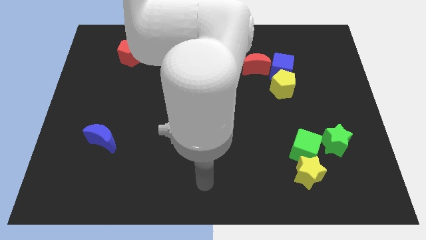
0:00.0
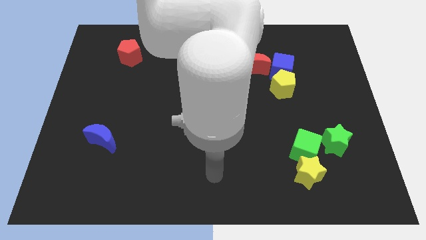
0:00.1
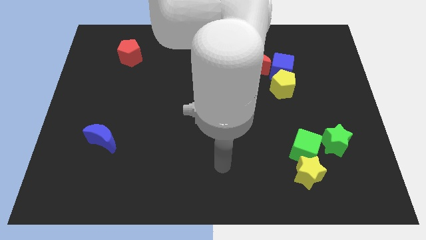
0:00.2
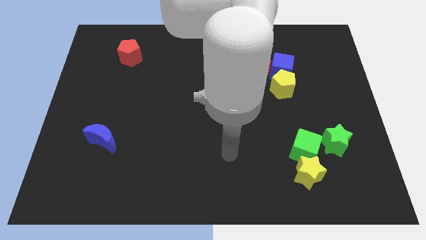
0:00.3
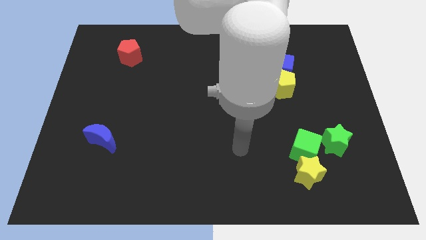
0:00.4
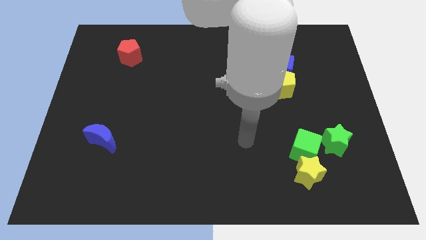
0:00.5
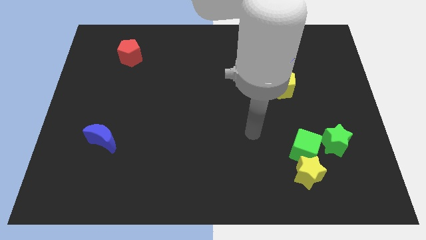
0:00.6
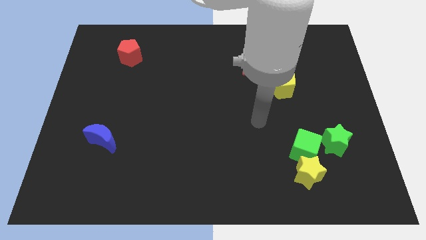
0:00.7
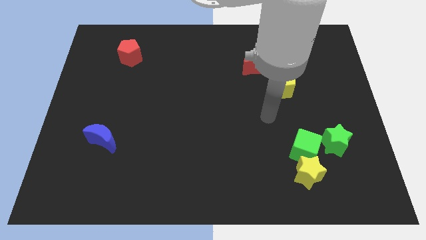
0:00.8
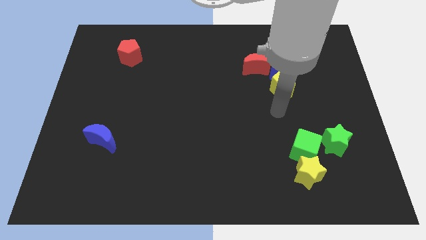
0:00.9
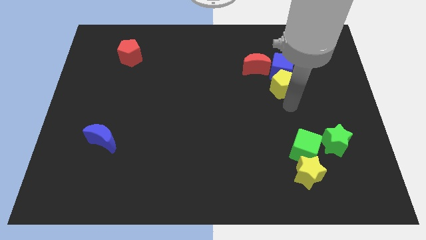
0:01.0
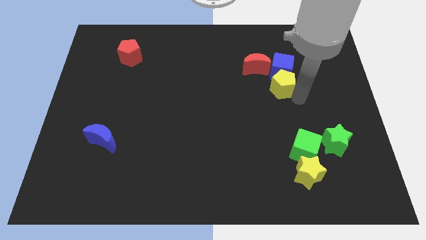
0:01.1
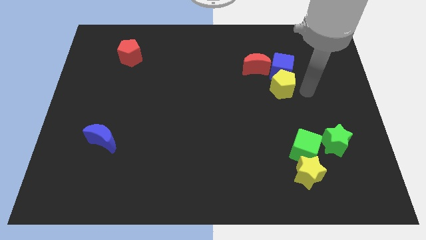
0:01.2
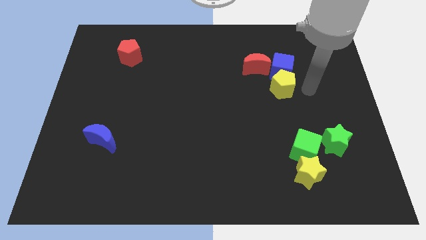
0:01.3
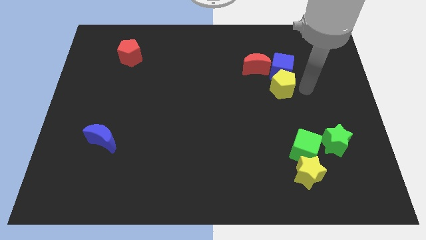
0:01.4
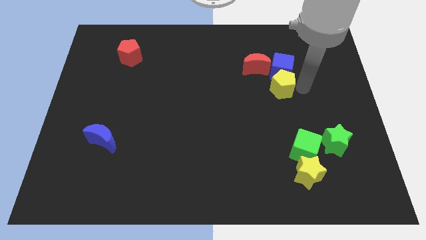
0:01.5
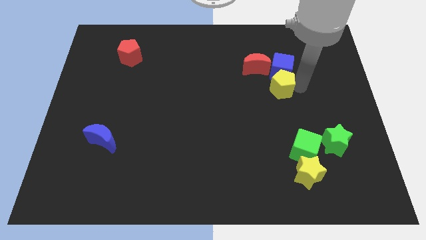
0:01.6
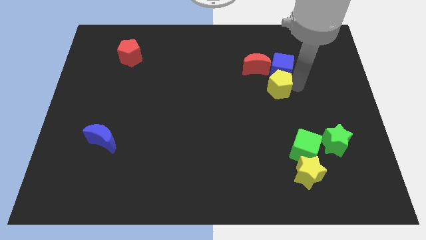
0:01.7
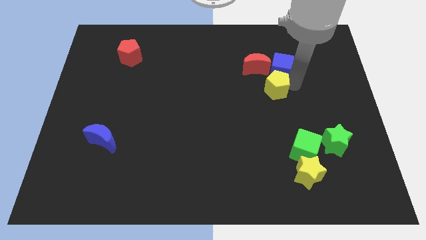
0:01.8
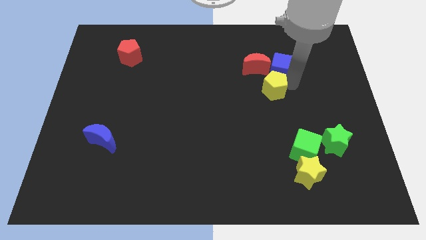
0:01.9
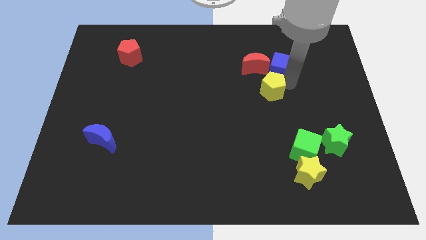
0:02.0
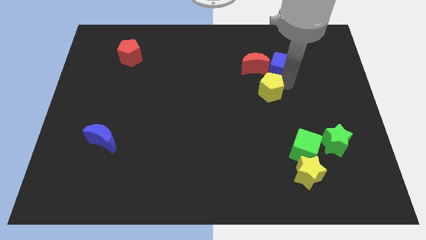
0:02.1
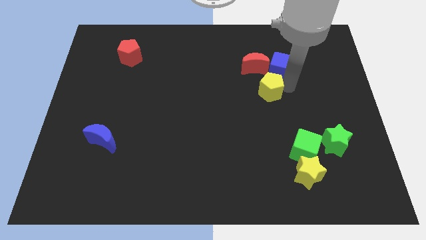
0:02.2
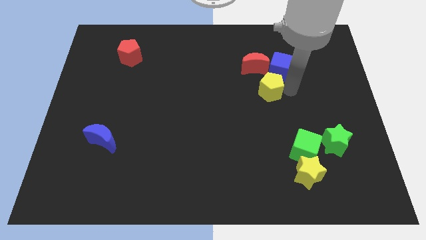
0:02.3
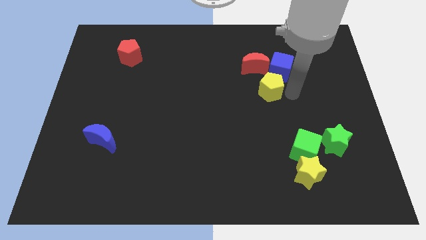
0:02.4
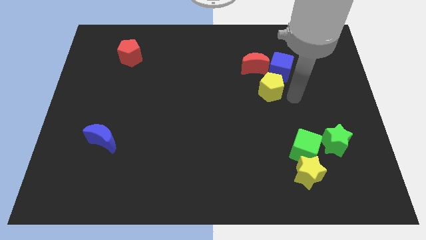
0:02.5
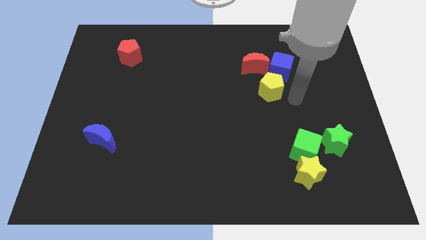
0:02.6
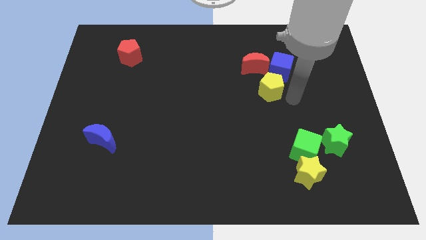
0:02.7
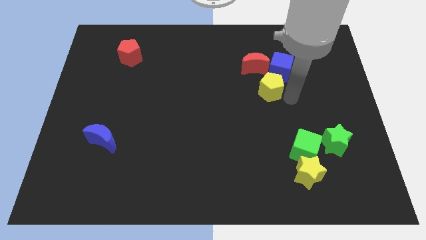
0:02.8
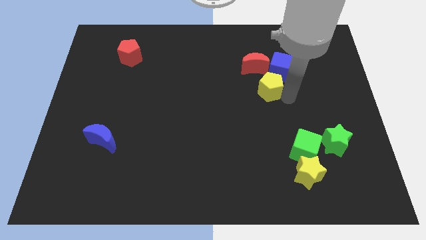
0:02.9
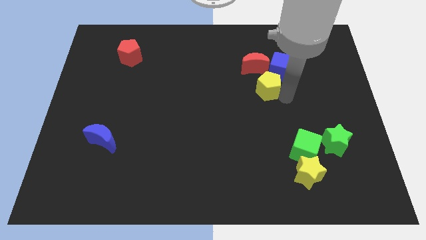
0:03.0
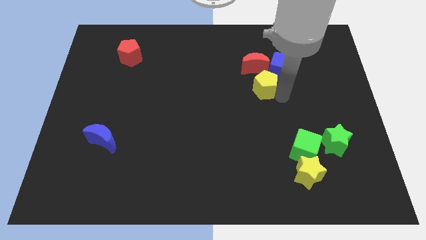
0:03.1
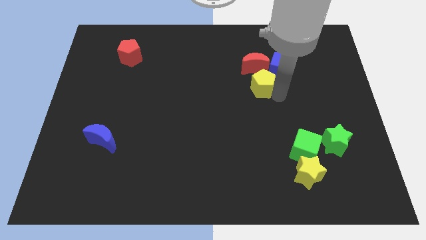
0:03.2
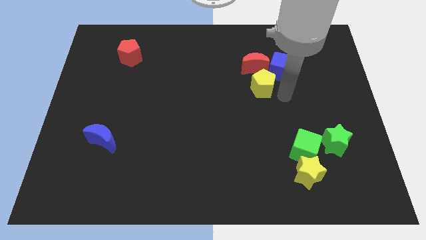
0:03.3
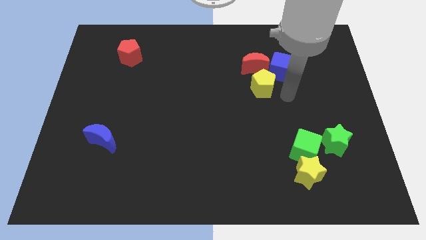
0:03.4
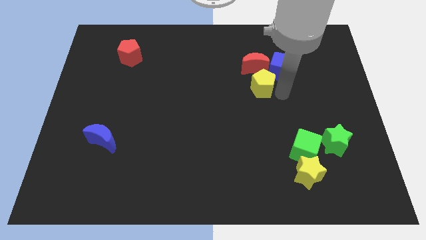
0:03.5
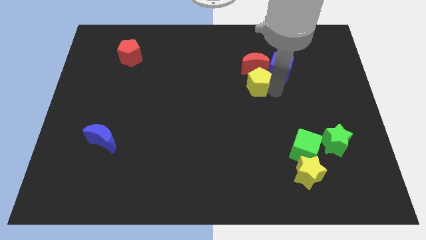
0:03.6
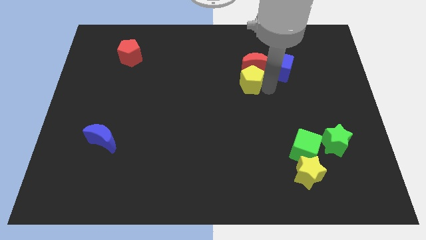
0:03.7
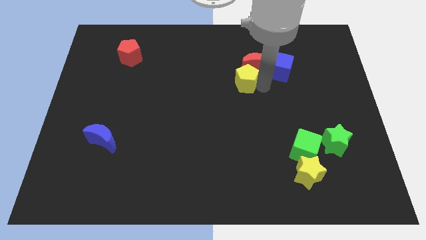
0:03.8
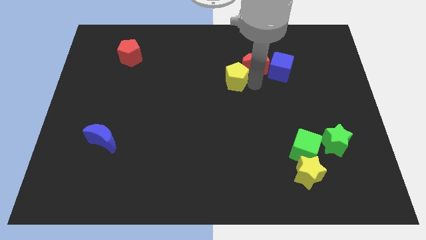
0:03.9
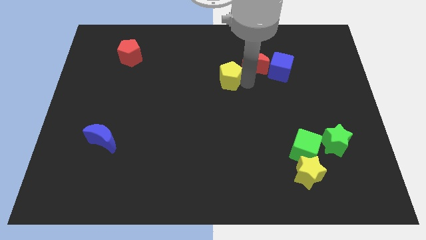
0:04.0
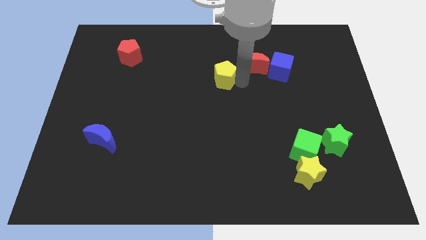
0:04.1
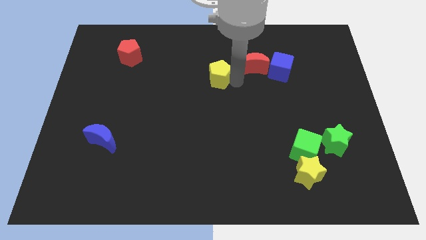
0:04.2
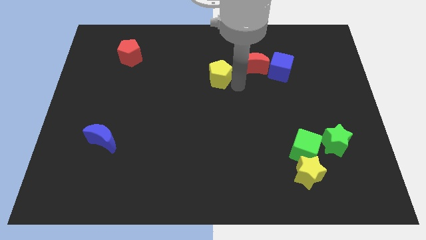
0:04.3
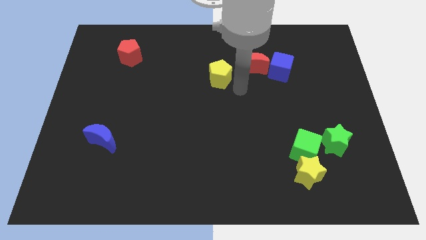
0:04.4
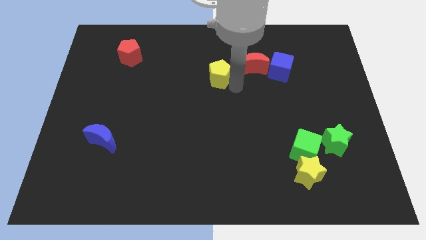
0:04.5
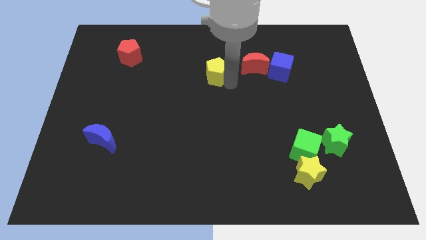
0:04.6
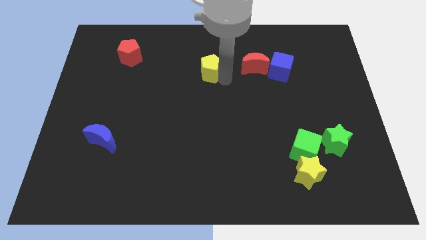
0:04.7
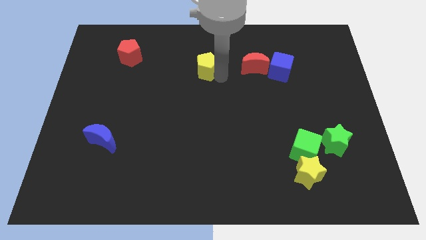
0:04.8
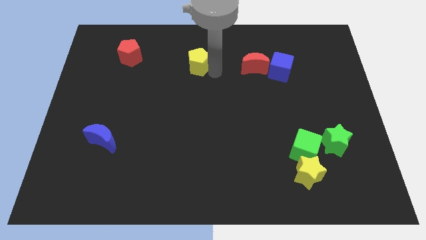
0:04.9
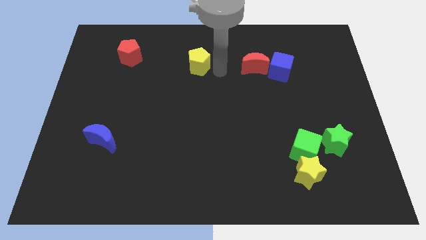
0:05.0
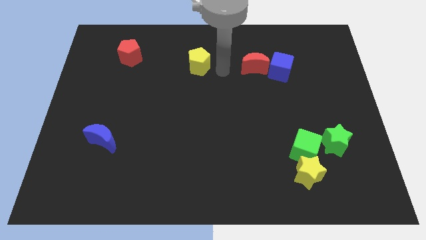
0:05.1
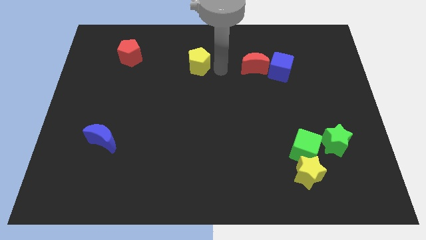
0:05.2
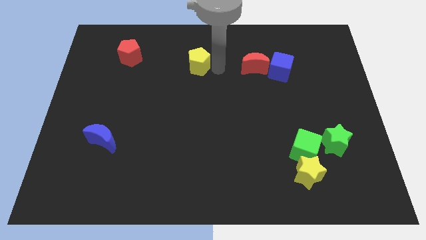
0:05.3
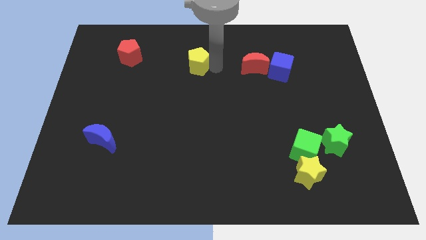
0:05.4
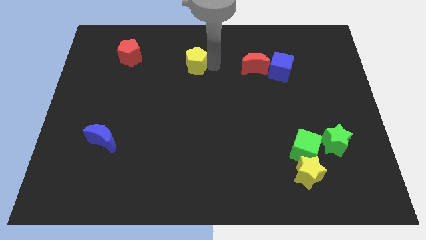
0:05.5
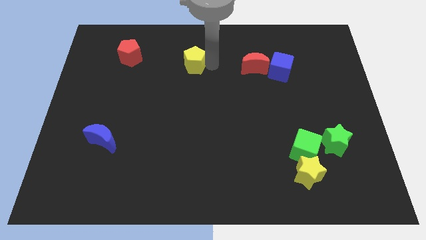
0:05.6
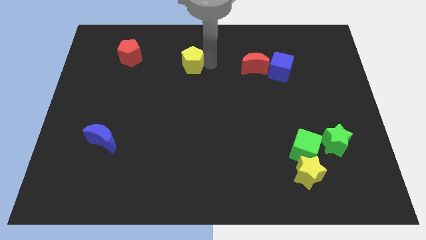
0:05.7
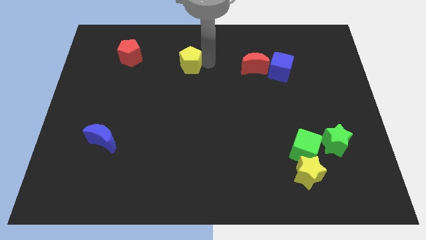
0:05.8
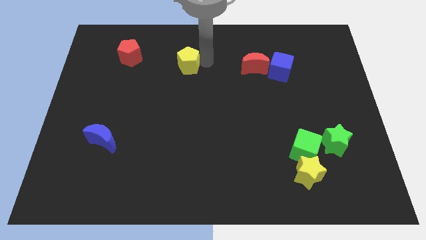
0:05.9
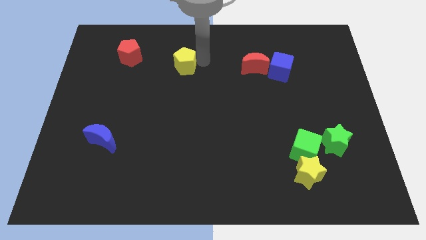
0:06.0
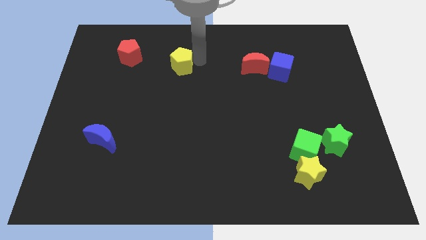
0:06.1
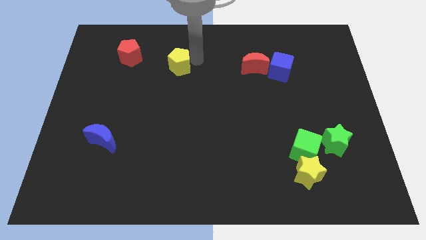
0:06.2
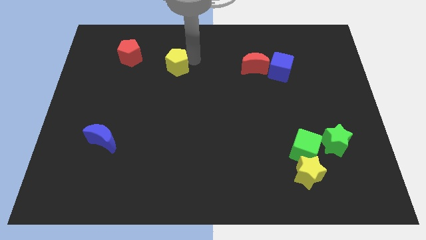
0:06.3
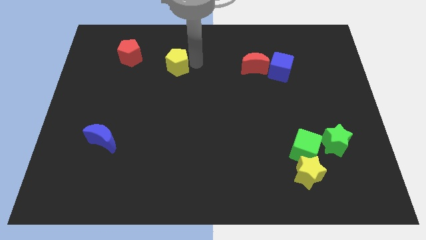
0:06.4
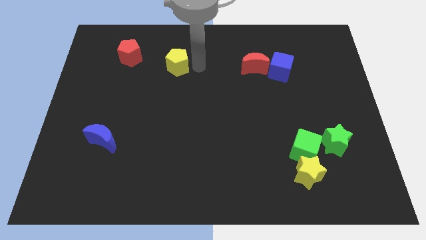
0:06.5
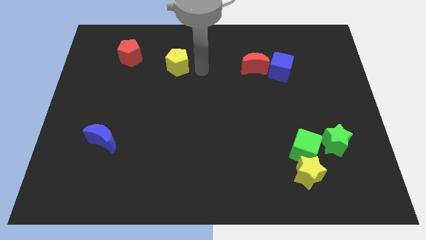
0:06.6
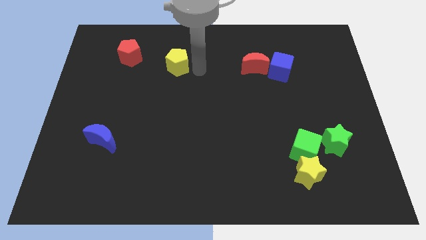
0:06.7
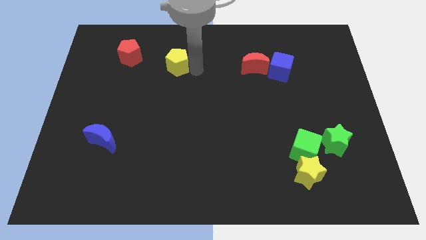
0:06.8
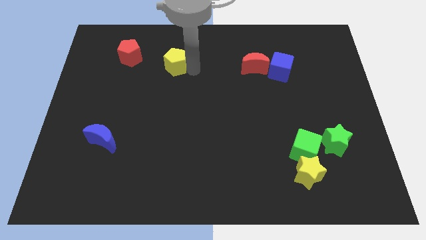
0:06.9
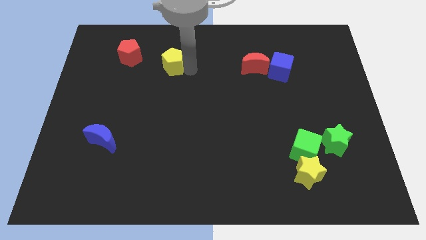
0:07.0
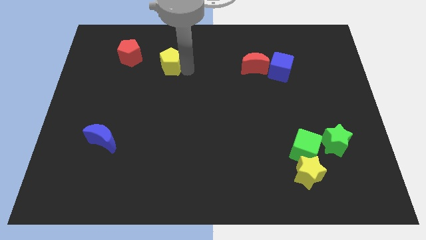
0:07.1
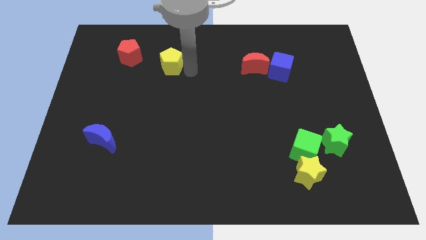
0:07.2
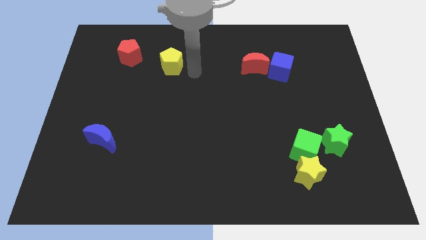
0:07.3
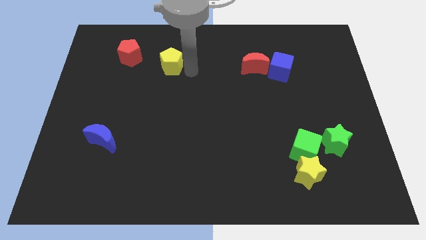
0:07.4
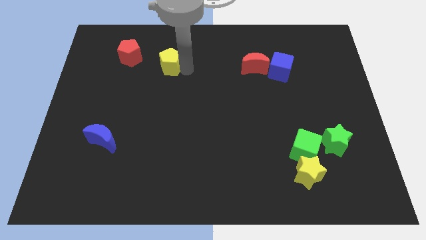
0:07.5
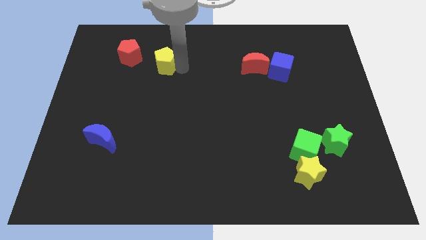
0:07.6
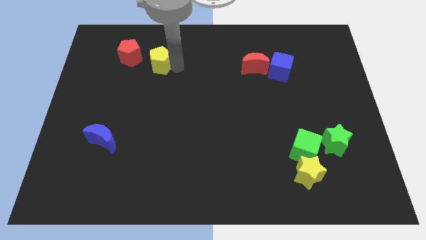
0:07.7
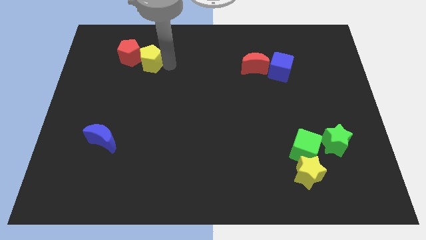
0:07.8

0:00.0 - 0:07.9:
move the yellow pentagon next to the red pentagon
